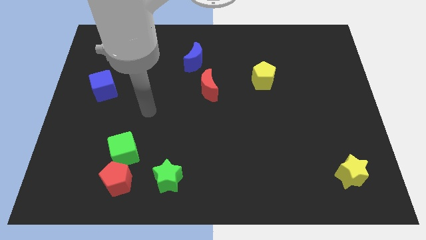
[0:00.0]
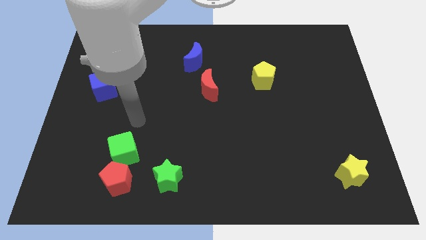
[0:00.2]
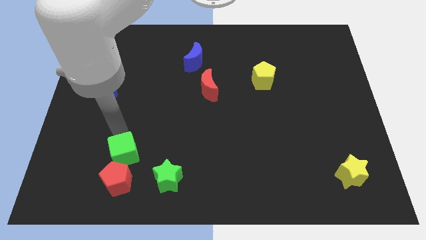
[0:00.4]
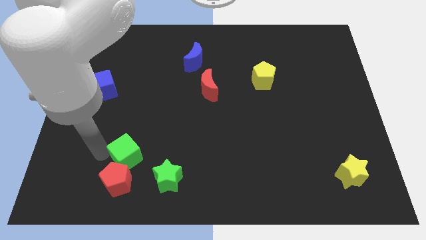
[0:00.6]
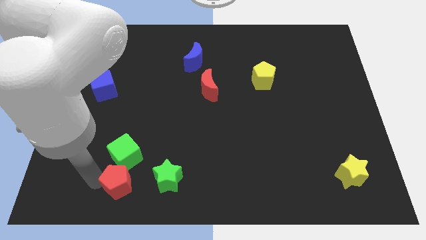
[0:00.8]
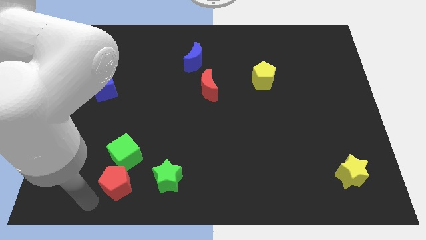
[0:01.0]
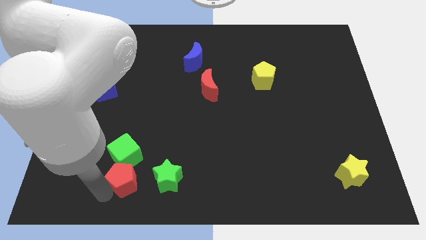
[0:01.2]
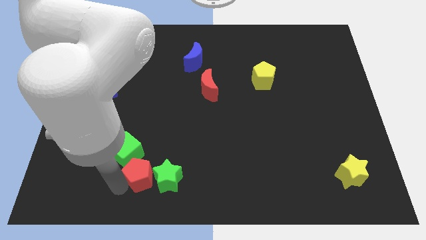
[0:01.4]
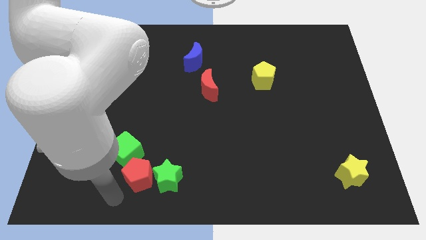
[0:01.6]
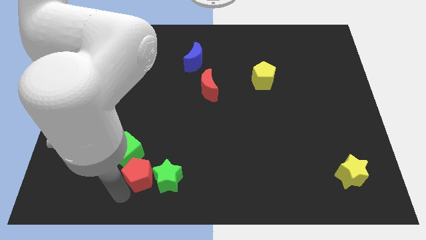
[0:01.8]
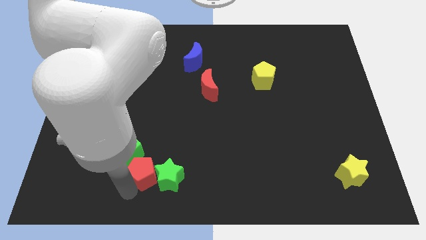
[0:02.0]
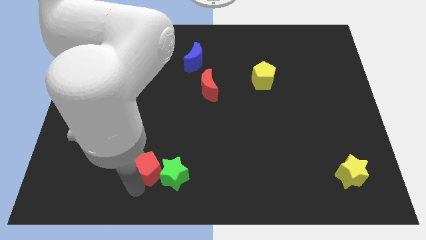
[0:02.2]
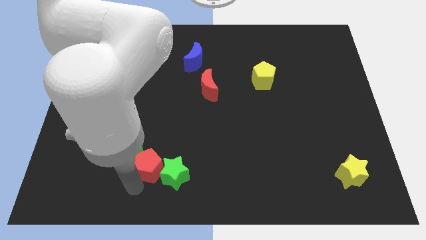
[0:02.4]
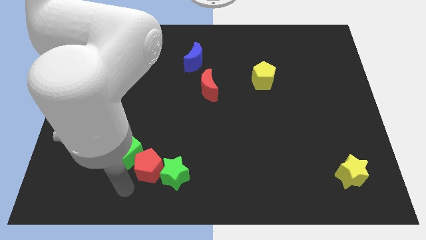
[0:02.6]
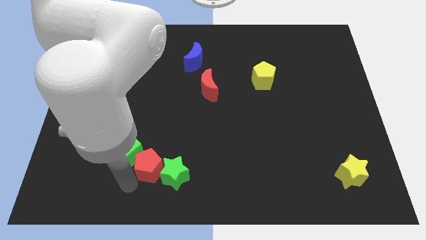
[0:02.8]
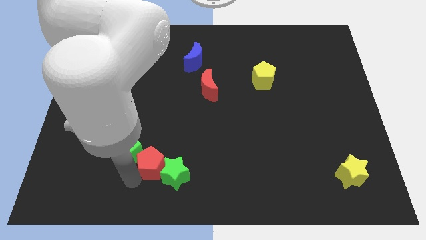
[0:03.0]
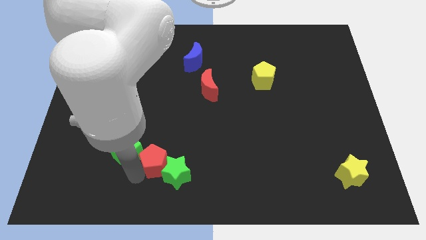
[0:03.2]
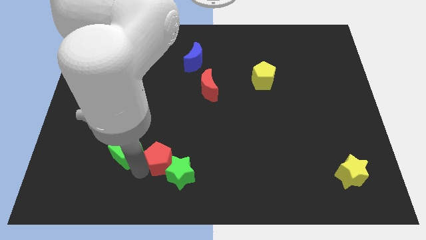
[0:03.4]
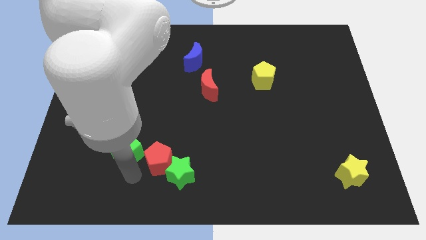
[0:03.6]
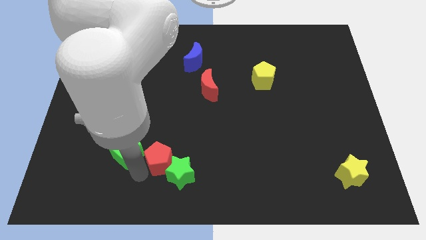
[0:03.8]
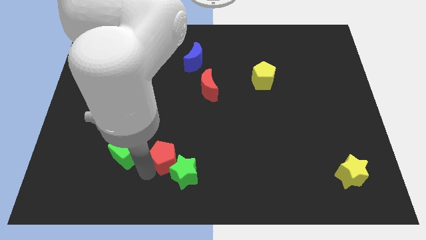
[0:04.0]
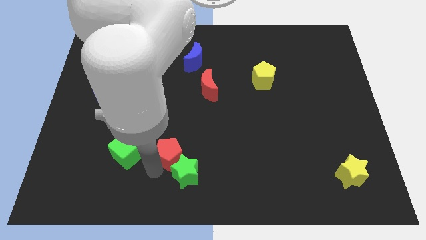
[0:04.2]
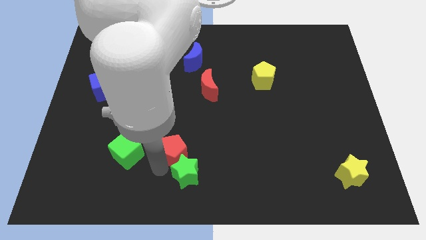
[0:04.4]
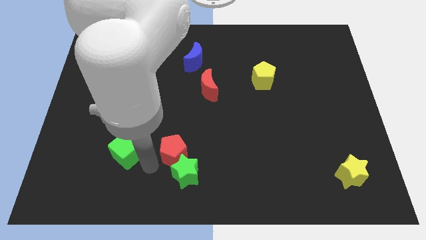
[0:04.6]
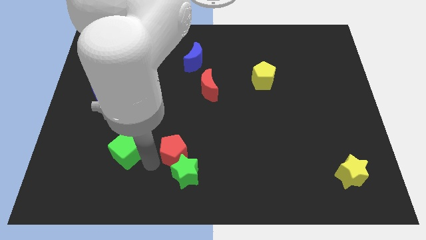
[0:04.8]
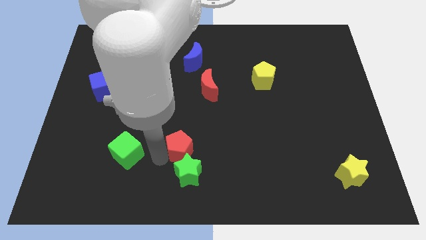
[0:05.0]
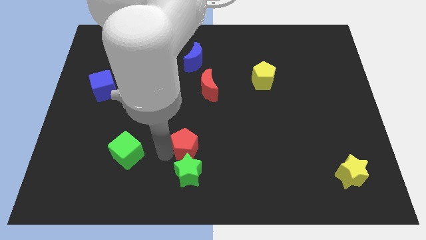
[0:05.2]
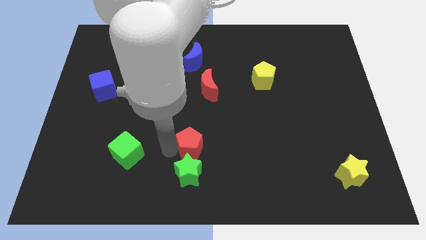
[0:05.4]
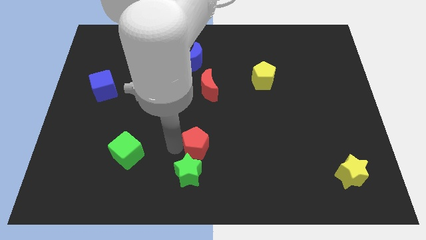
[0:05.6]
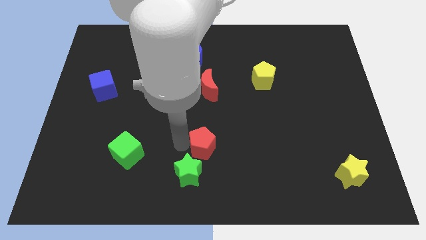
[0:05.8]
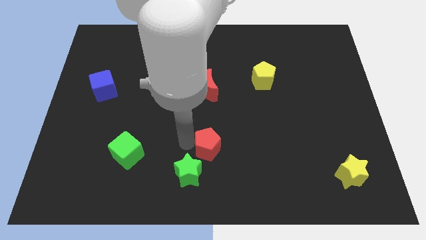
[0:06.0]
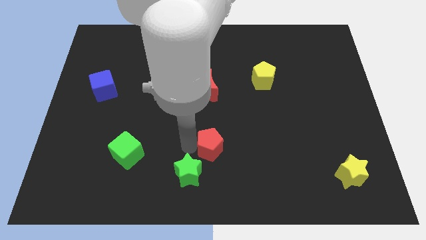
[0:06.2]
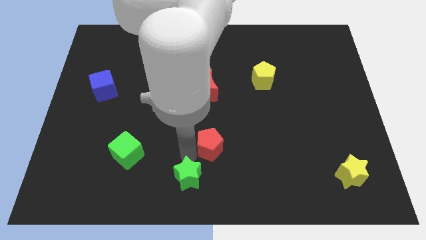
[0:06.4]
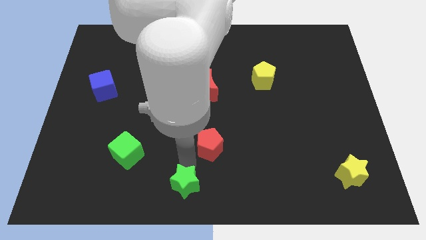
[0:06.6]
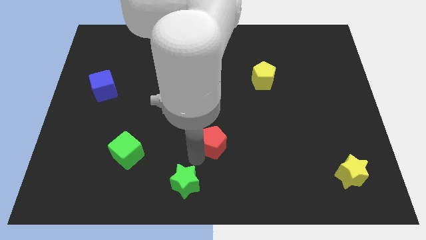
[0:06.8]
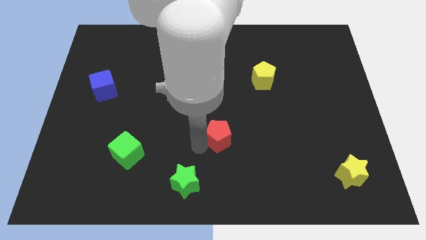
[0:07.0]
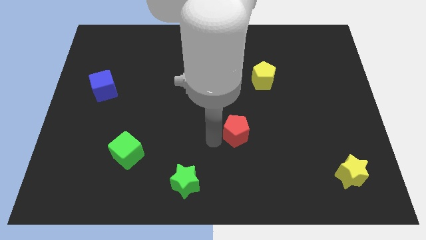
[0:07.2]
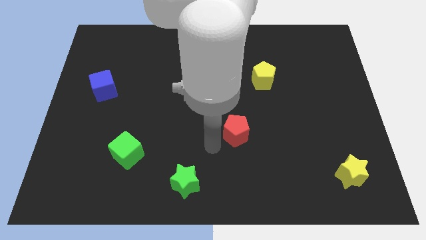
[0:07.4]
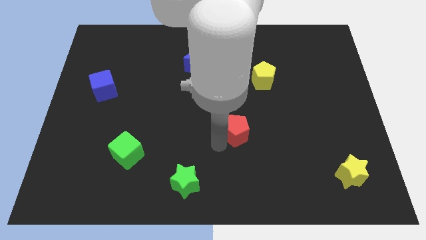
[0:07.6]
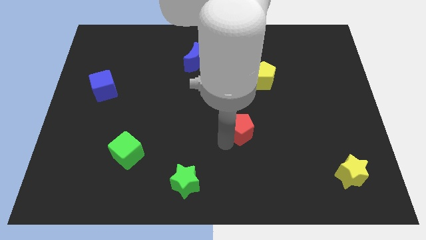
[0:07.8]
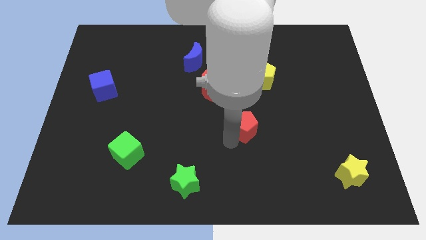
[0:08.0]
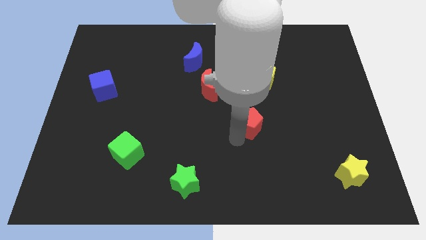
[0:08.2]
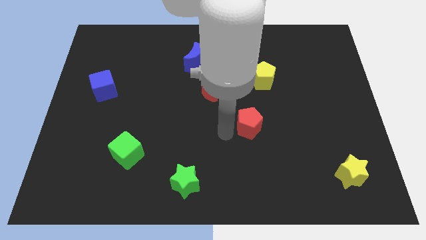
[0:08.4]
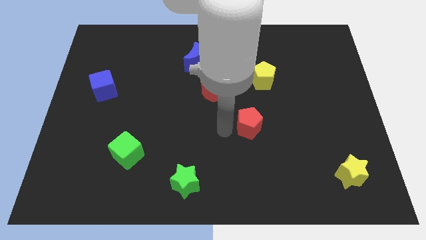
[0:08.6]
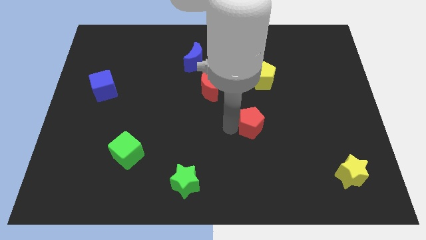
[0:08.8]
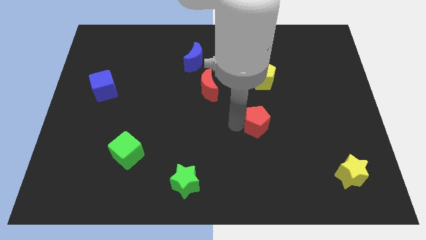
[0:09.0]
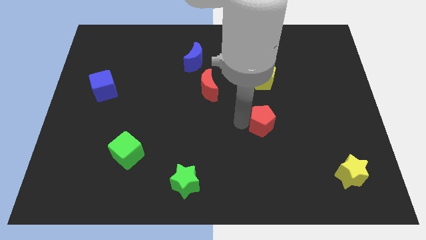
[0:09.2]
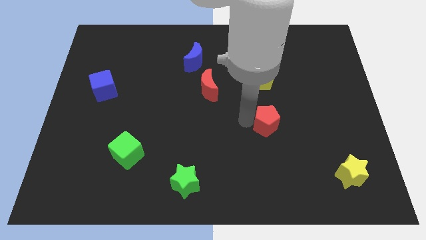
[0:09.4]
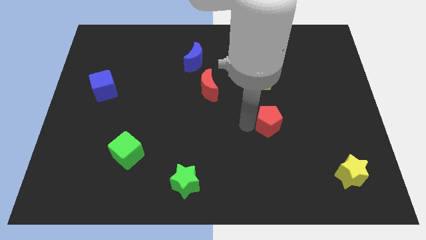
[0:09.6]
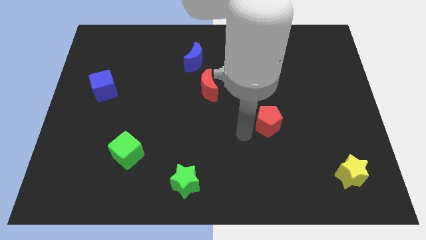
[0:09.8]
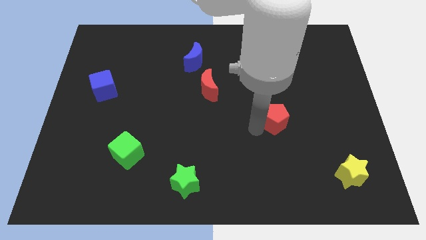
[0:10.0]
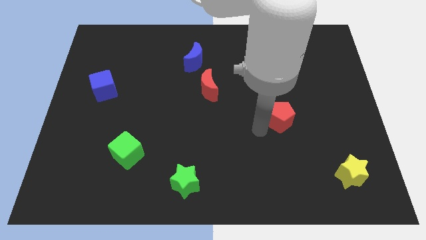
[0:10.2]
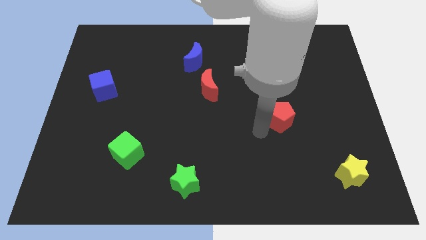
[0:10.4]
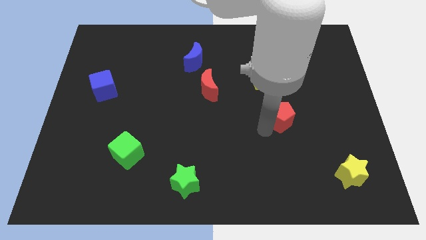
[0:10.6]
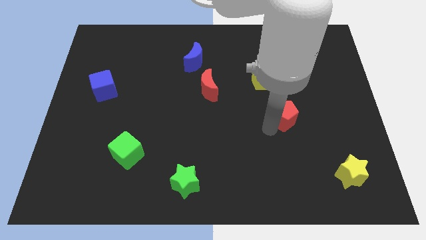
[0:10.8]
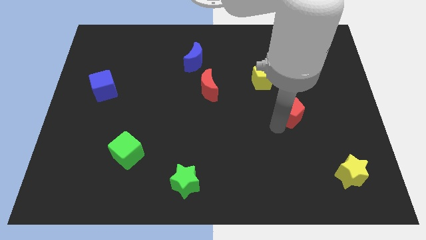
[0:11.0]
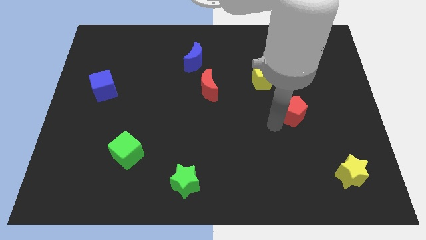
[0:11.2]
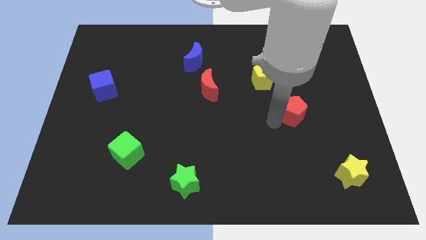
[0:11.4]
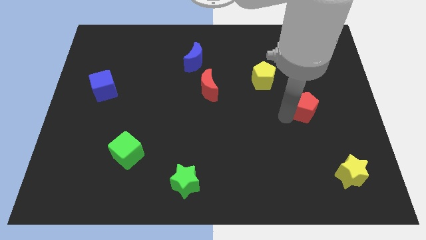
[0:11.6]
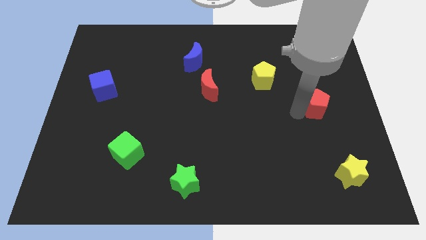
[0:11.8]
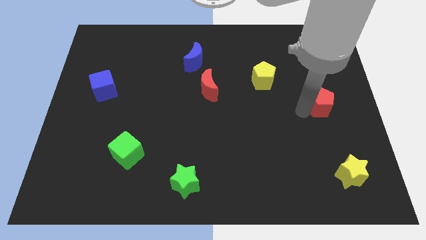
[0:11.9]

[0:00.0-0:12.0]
move the red pentagon to the right side

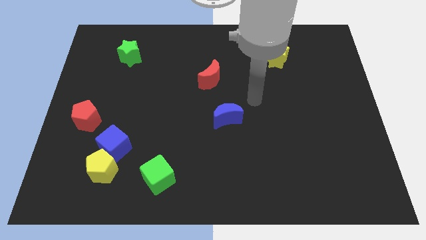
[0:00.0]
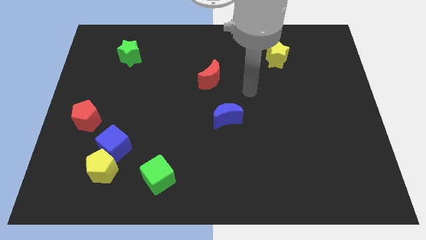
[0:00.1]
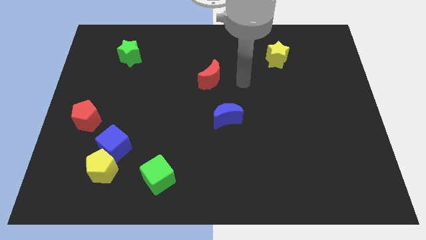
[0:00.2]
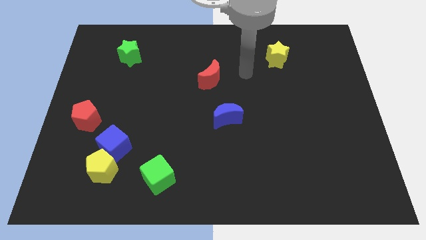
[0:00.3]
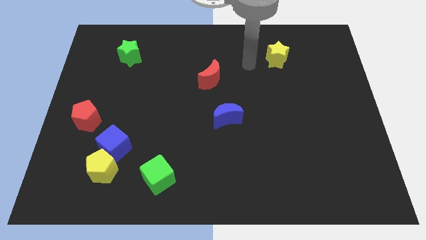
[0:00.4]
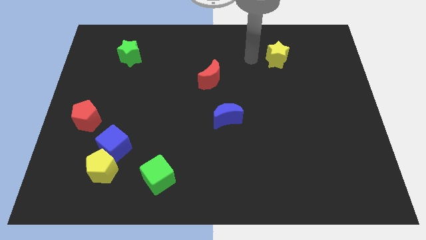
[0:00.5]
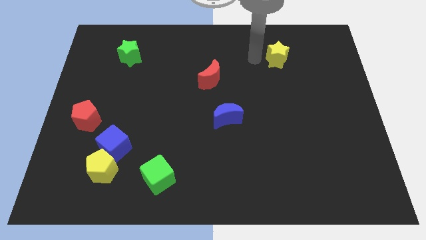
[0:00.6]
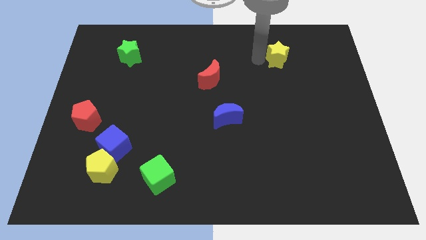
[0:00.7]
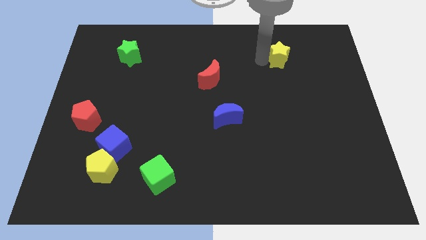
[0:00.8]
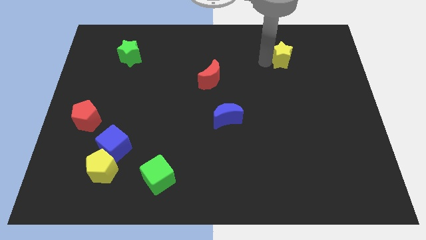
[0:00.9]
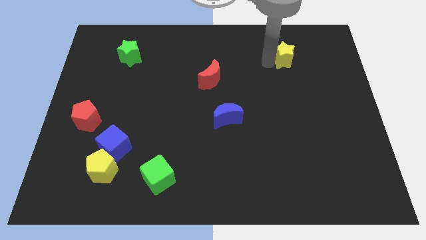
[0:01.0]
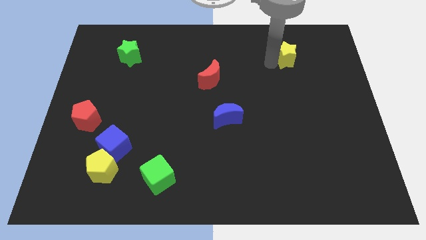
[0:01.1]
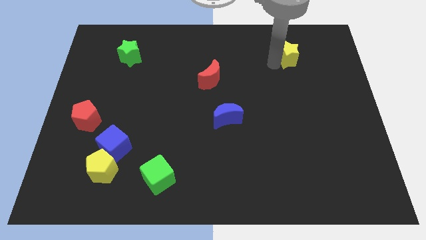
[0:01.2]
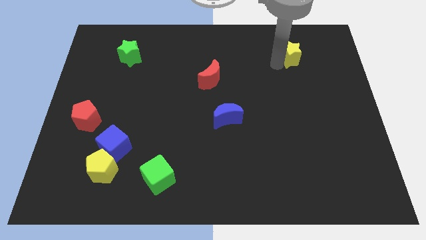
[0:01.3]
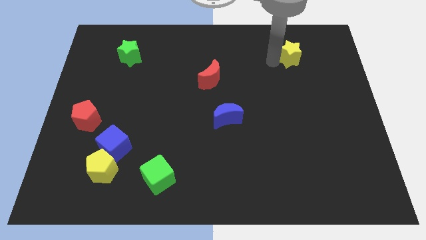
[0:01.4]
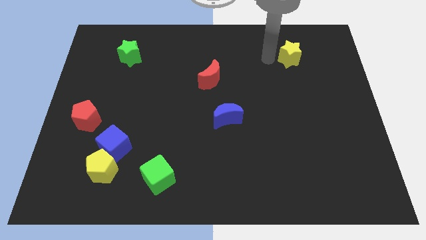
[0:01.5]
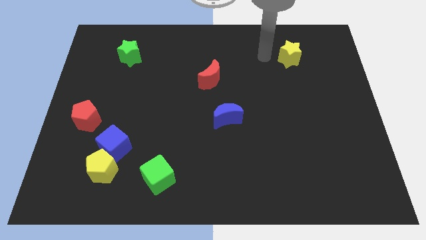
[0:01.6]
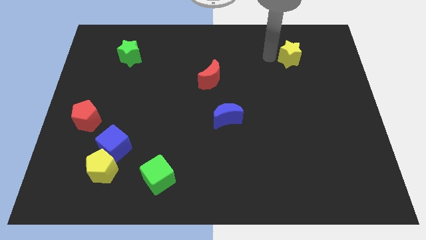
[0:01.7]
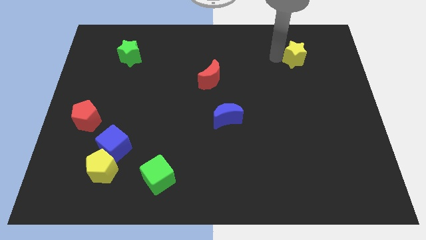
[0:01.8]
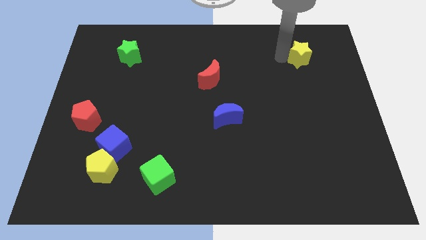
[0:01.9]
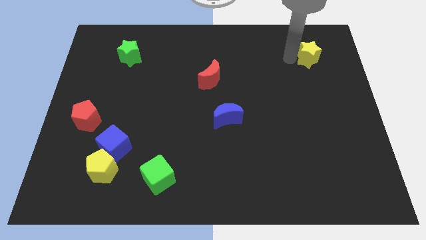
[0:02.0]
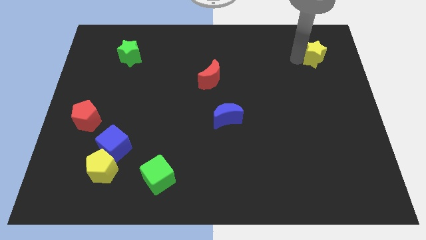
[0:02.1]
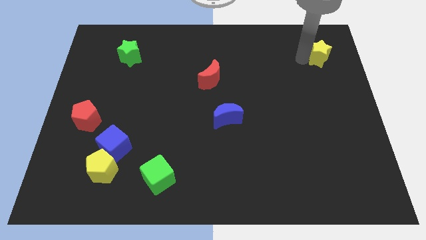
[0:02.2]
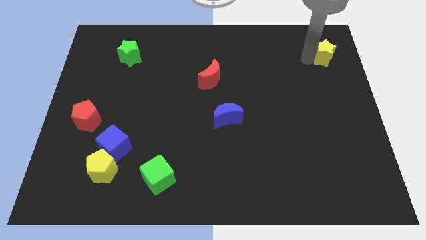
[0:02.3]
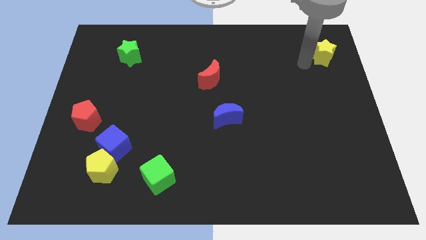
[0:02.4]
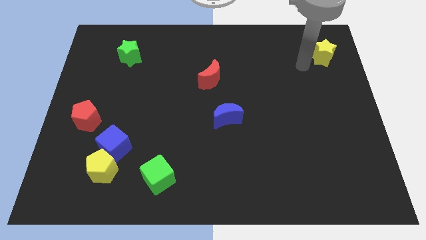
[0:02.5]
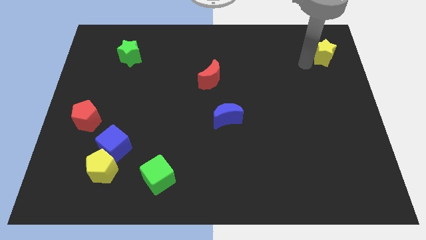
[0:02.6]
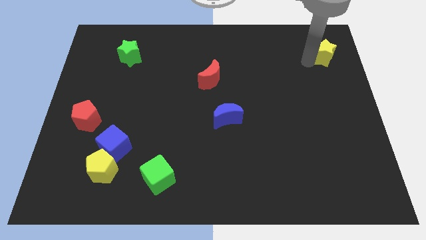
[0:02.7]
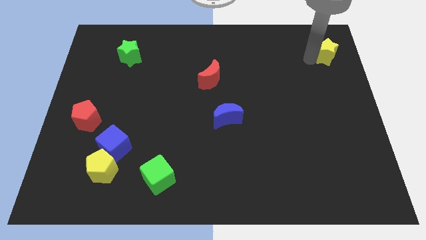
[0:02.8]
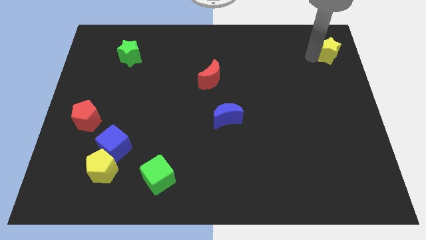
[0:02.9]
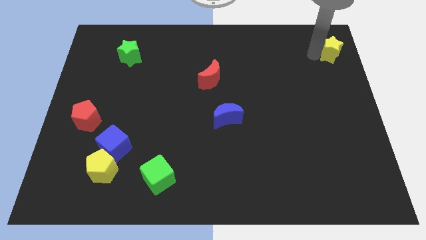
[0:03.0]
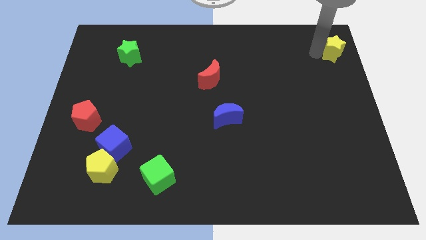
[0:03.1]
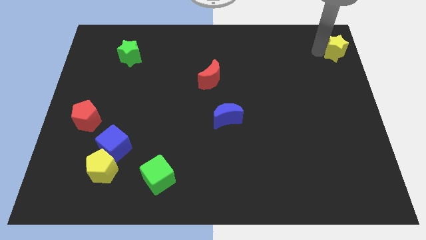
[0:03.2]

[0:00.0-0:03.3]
push the yellow star to the upper right corner
